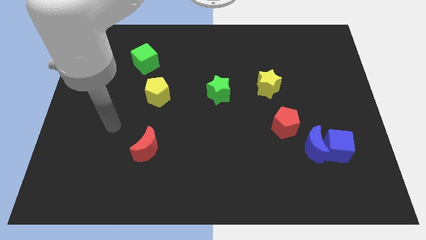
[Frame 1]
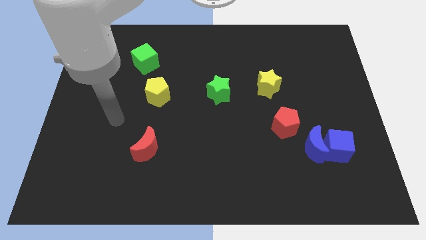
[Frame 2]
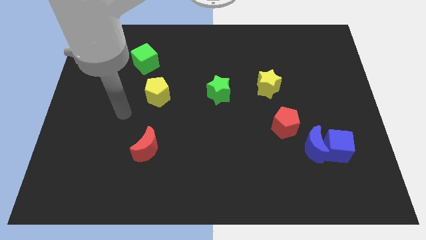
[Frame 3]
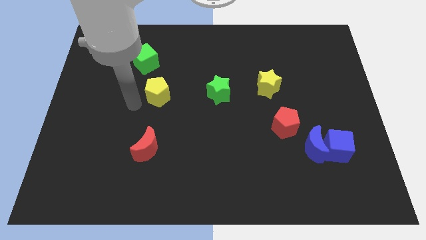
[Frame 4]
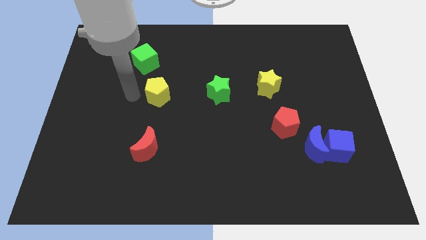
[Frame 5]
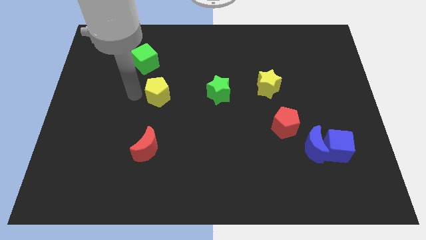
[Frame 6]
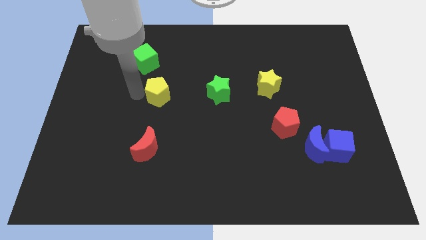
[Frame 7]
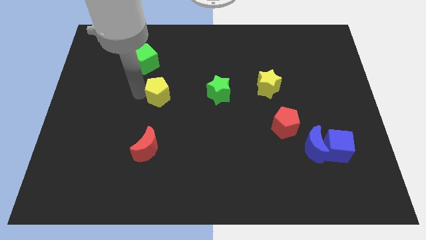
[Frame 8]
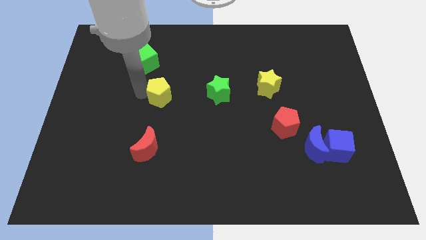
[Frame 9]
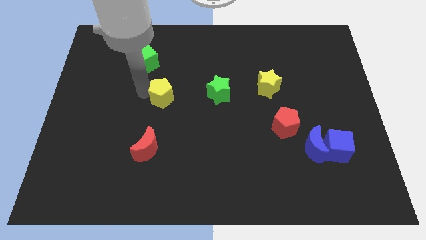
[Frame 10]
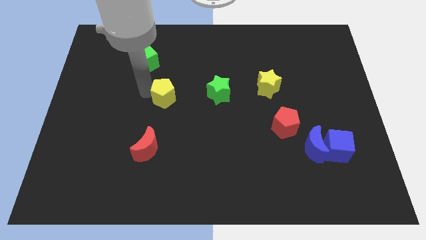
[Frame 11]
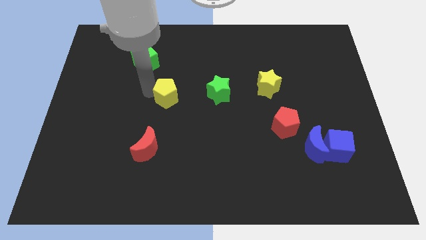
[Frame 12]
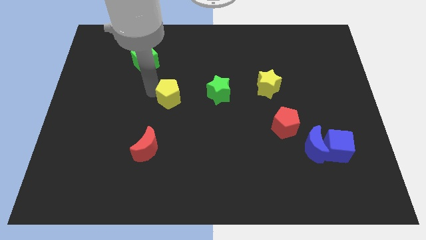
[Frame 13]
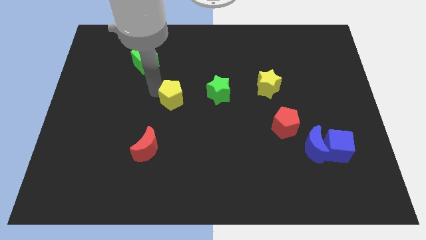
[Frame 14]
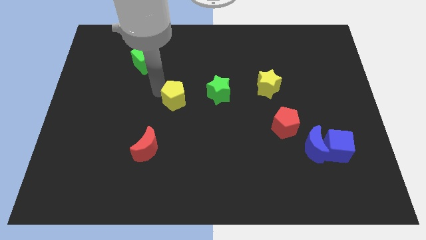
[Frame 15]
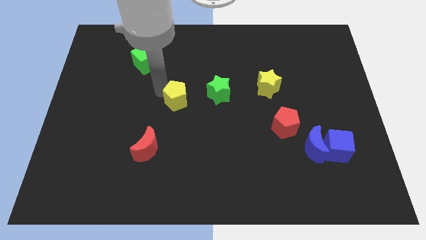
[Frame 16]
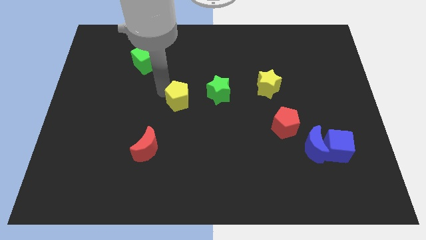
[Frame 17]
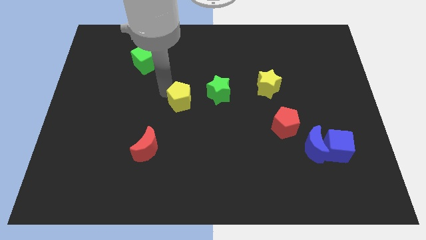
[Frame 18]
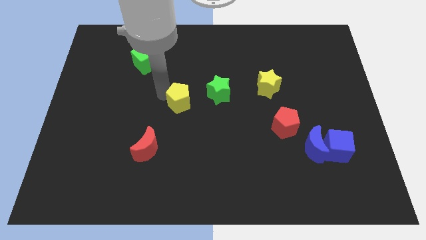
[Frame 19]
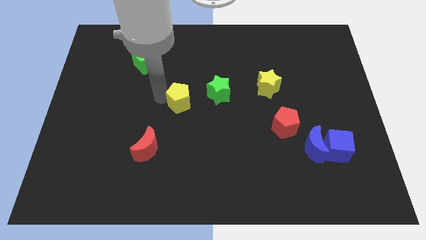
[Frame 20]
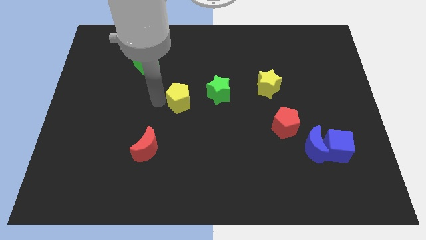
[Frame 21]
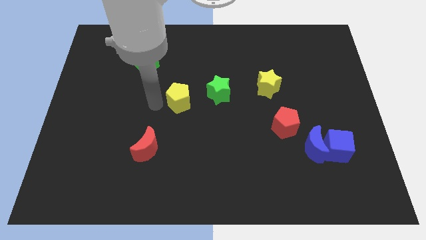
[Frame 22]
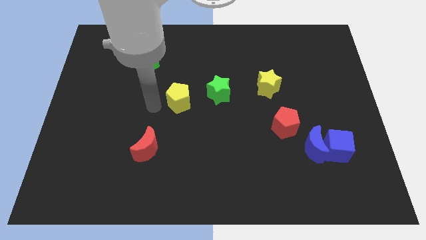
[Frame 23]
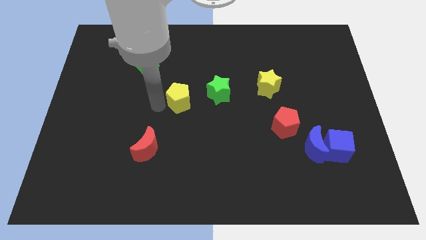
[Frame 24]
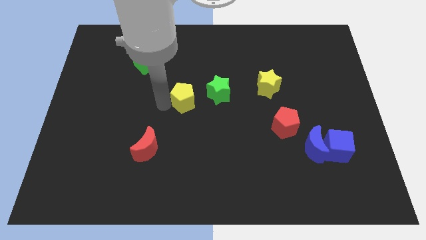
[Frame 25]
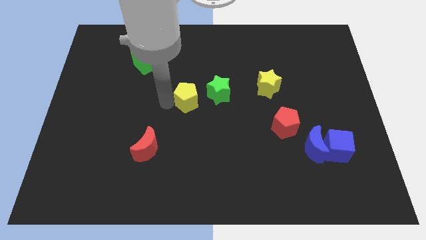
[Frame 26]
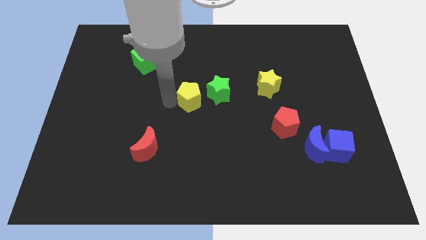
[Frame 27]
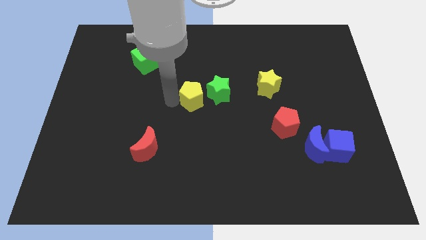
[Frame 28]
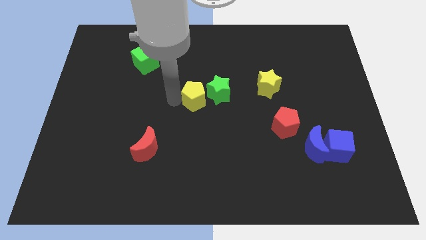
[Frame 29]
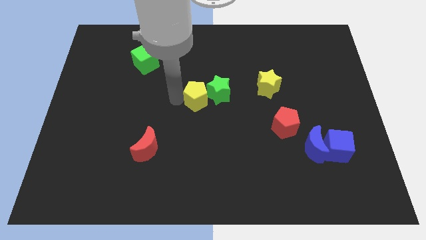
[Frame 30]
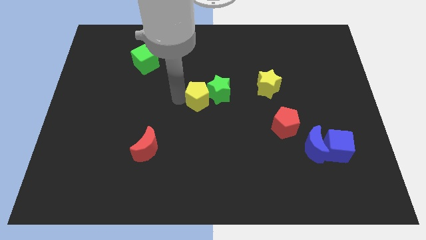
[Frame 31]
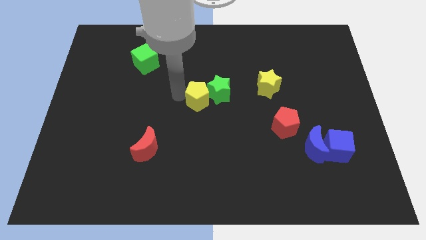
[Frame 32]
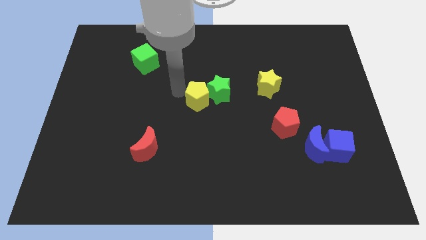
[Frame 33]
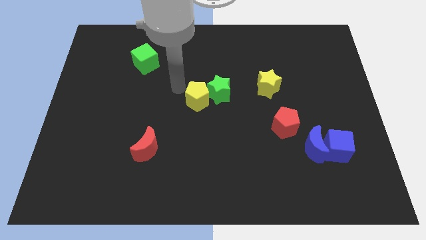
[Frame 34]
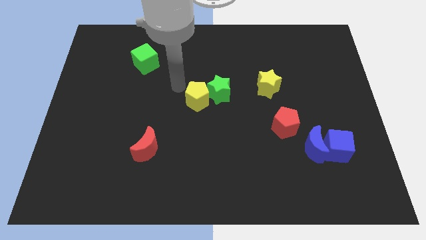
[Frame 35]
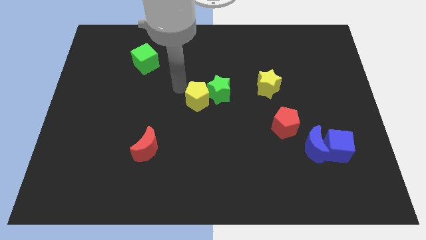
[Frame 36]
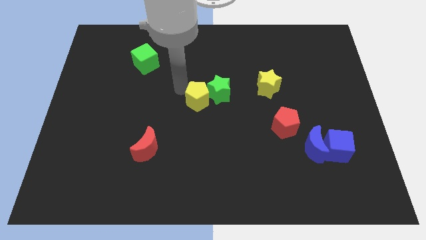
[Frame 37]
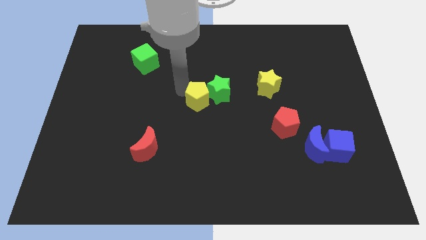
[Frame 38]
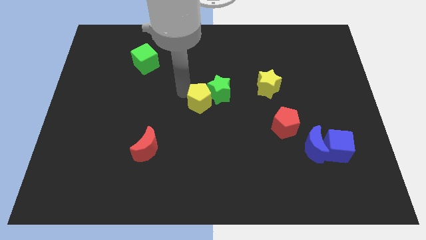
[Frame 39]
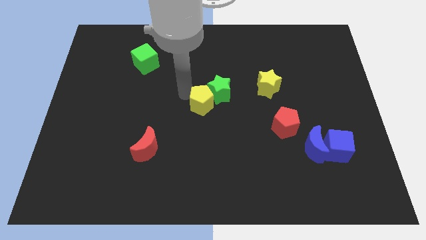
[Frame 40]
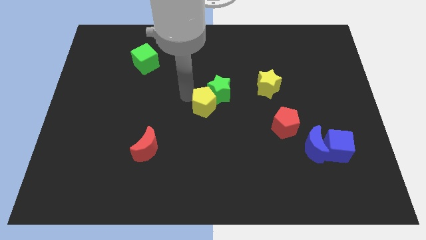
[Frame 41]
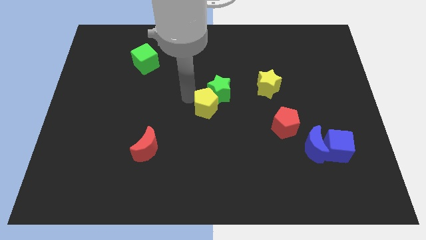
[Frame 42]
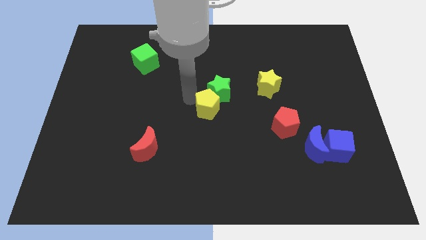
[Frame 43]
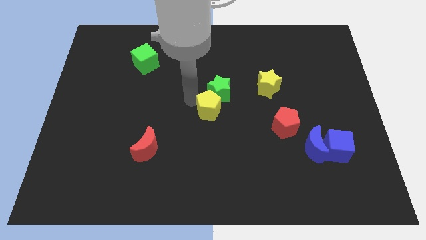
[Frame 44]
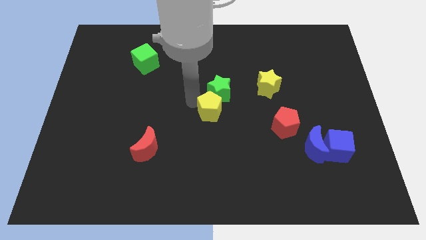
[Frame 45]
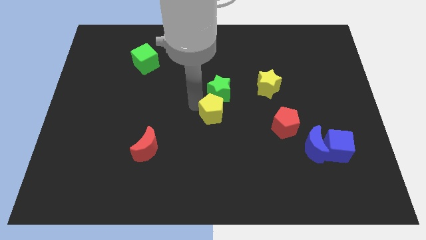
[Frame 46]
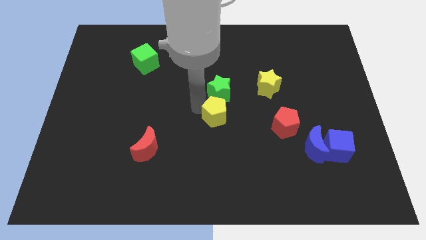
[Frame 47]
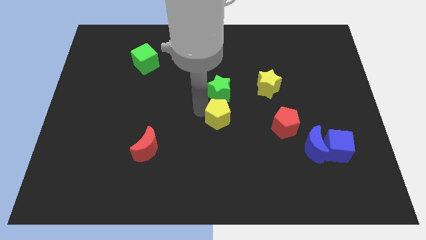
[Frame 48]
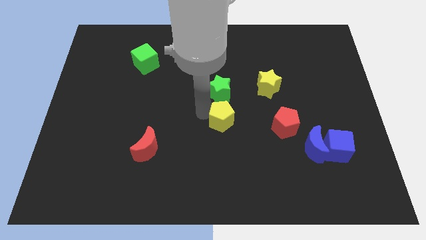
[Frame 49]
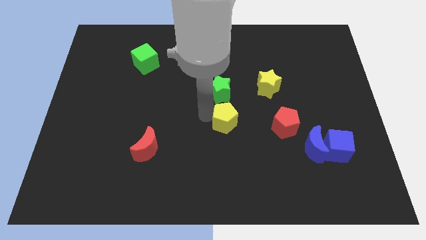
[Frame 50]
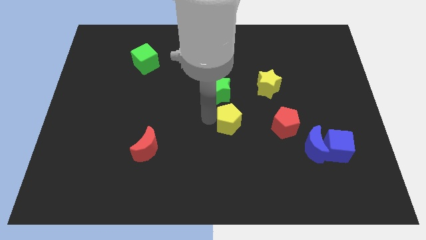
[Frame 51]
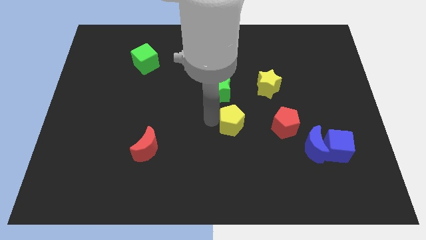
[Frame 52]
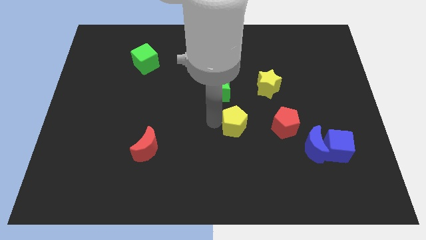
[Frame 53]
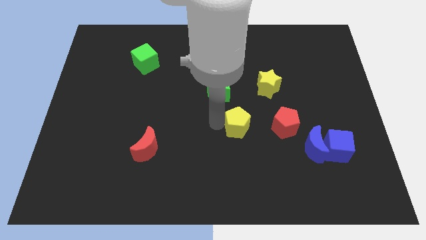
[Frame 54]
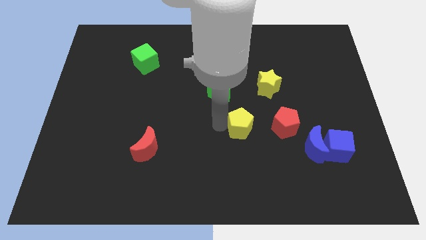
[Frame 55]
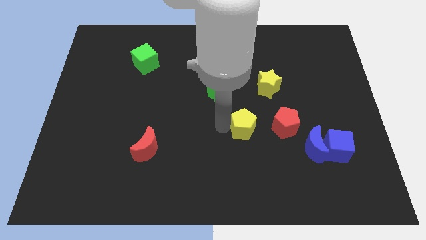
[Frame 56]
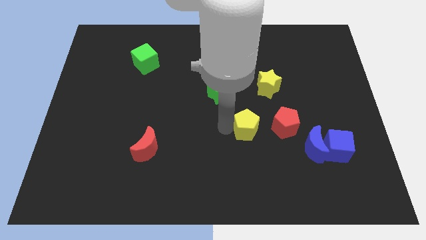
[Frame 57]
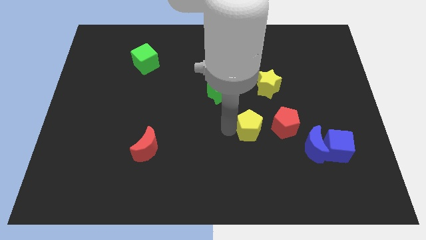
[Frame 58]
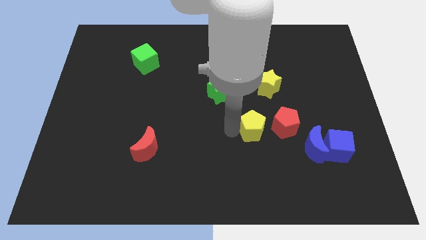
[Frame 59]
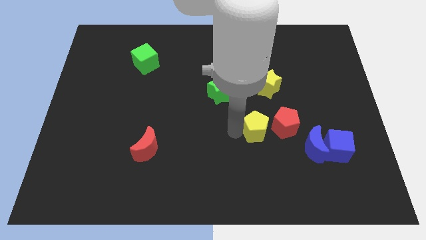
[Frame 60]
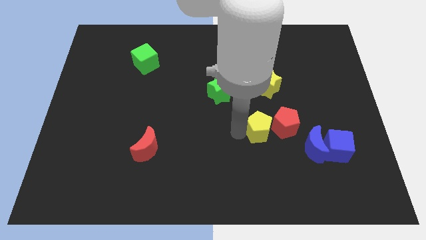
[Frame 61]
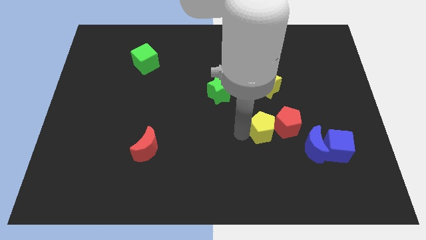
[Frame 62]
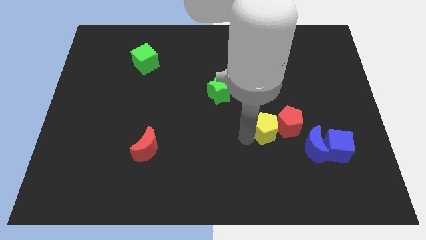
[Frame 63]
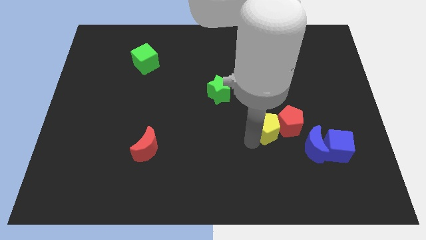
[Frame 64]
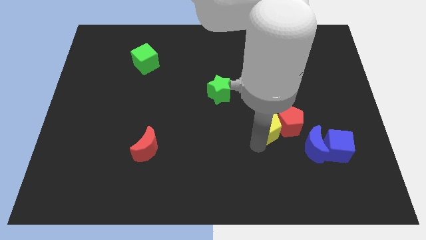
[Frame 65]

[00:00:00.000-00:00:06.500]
move the yellow pentagon right

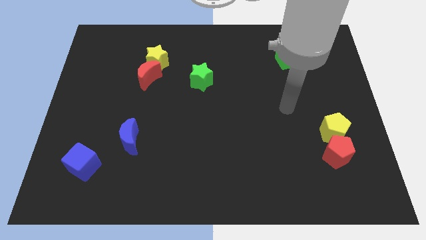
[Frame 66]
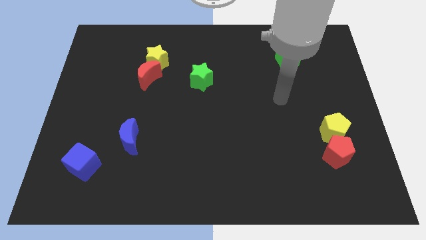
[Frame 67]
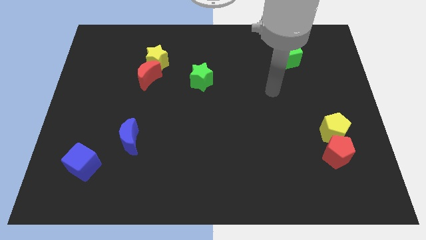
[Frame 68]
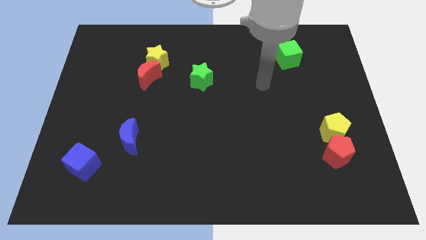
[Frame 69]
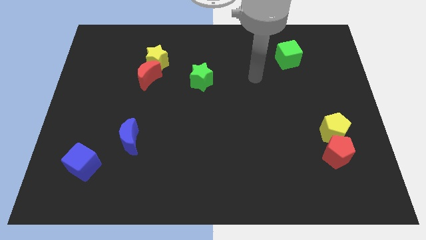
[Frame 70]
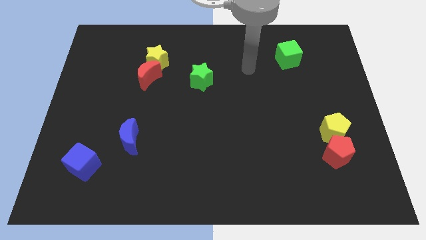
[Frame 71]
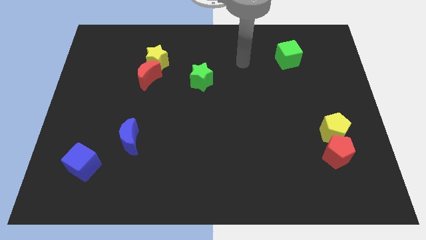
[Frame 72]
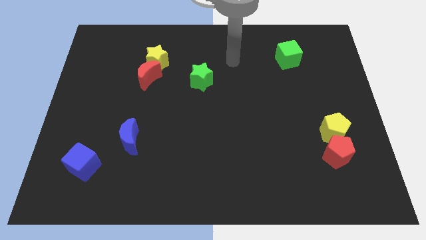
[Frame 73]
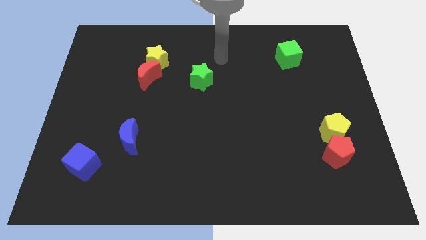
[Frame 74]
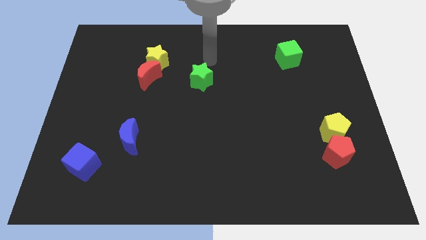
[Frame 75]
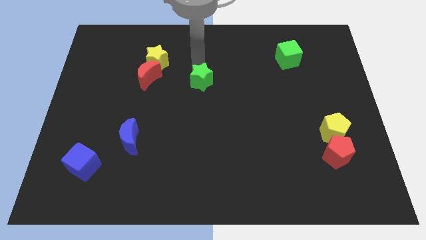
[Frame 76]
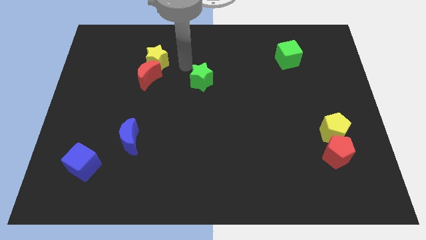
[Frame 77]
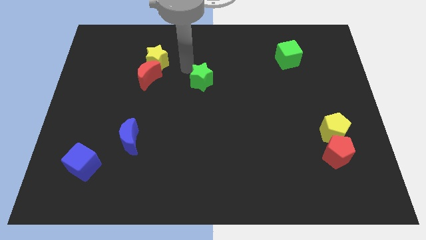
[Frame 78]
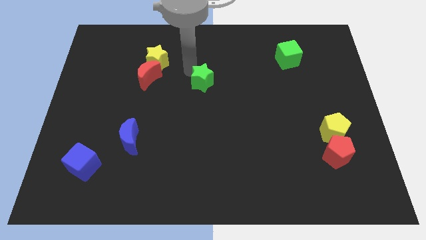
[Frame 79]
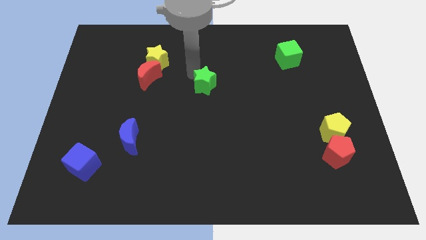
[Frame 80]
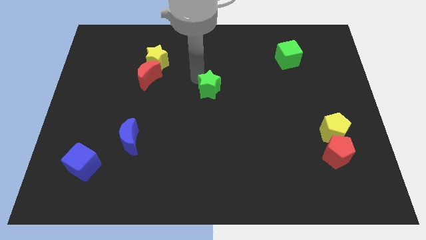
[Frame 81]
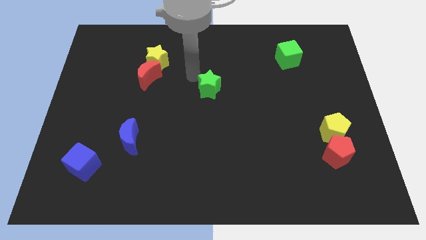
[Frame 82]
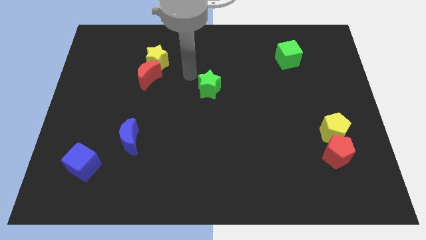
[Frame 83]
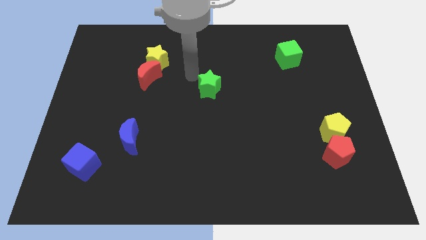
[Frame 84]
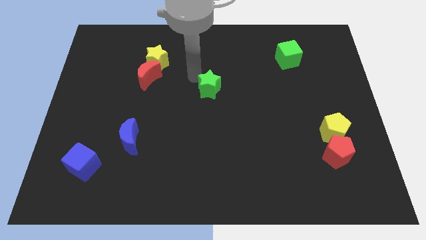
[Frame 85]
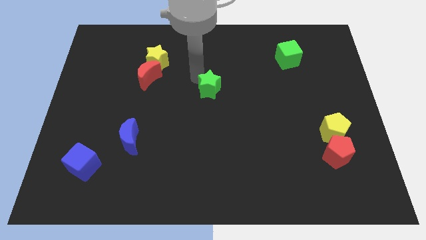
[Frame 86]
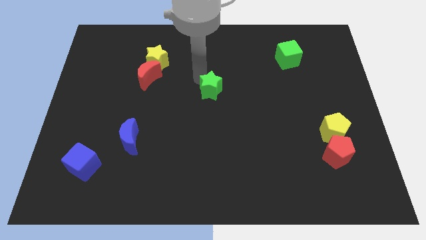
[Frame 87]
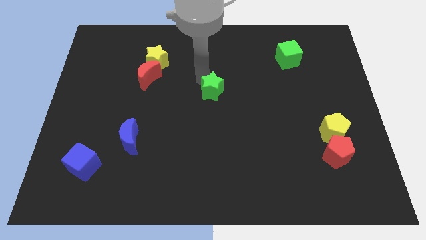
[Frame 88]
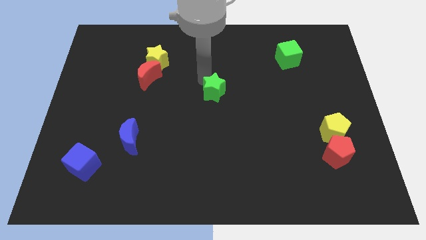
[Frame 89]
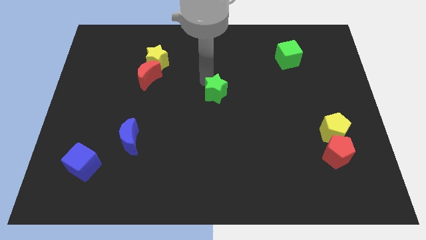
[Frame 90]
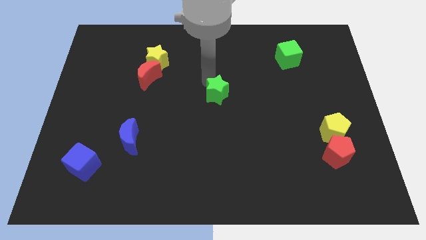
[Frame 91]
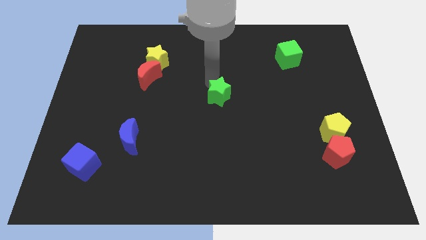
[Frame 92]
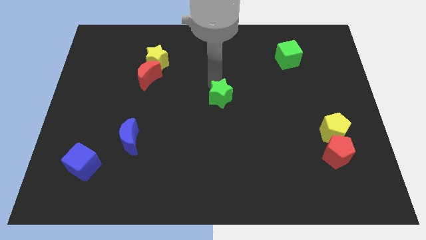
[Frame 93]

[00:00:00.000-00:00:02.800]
move the green star somewhat downwards and right
